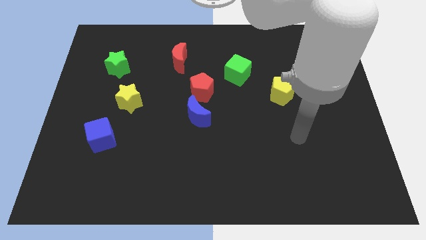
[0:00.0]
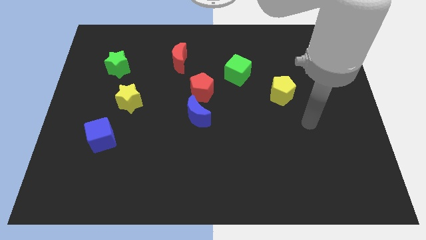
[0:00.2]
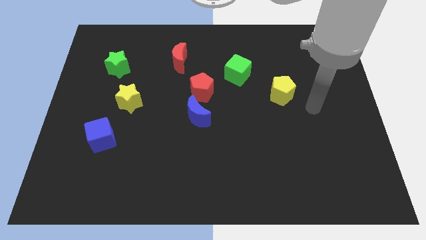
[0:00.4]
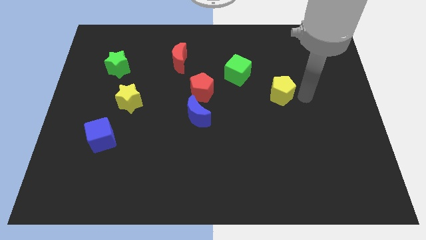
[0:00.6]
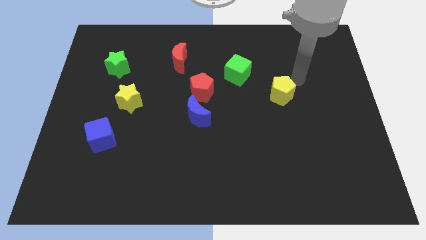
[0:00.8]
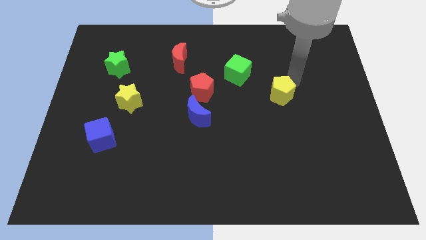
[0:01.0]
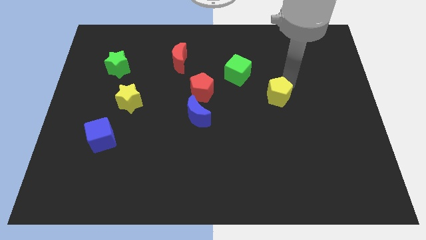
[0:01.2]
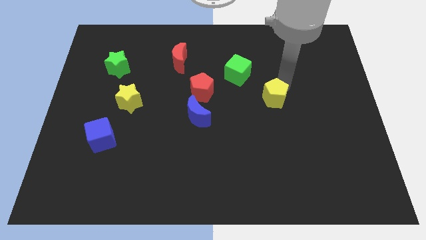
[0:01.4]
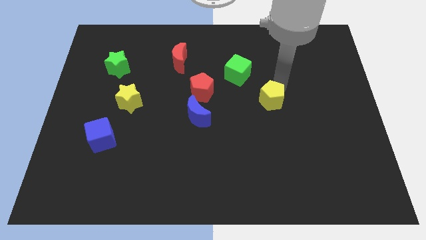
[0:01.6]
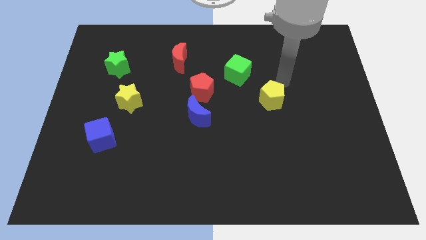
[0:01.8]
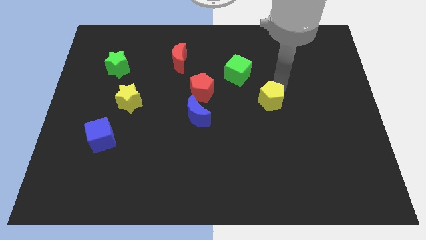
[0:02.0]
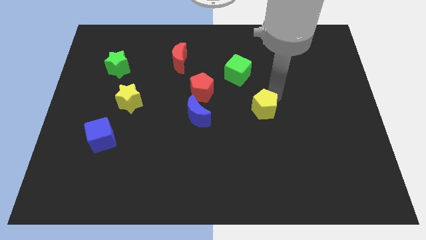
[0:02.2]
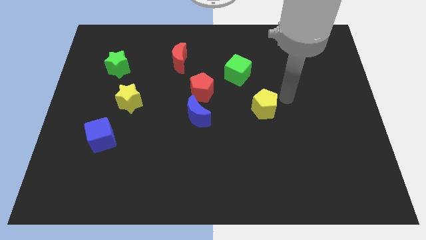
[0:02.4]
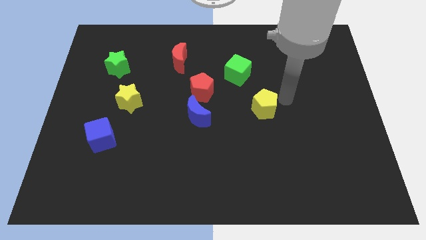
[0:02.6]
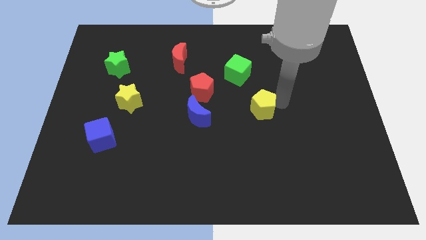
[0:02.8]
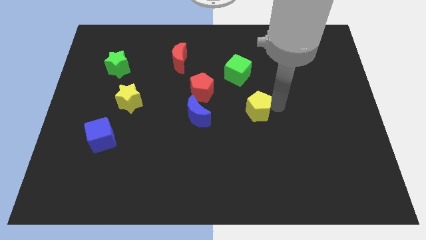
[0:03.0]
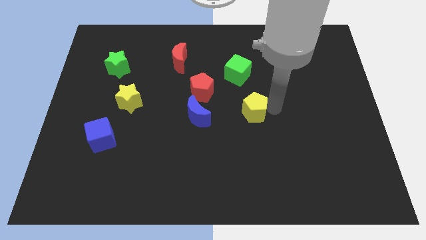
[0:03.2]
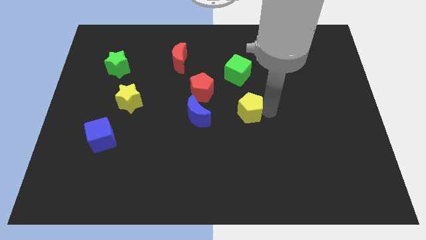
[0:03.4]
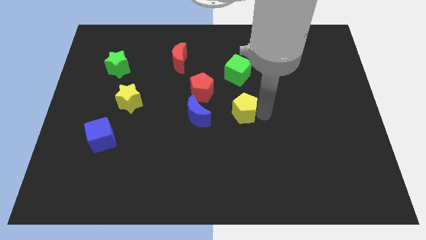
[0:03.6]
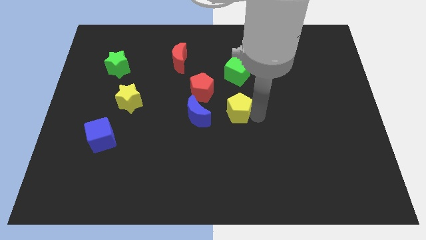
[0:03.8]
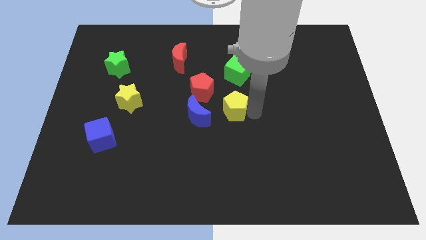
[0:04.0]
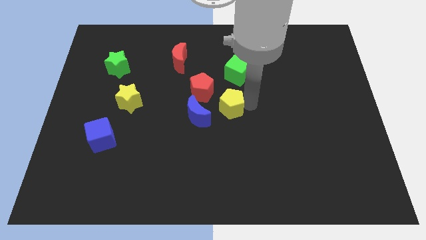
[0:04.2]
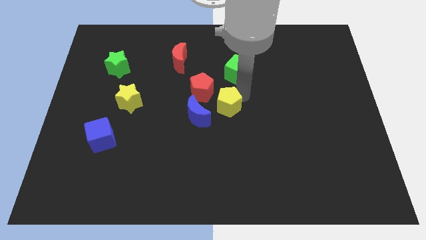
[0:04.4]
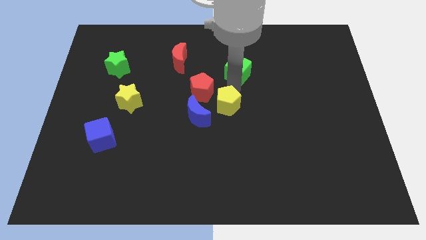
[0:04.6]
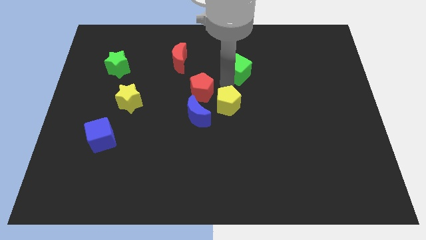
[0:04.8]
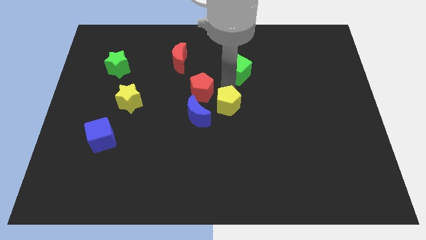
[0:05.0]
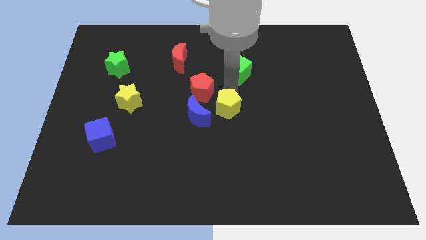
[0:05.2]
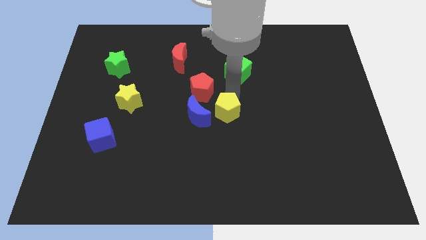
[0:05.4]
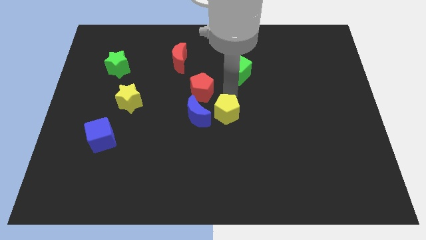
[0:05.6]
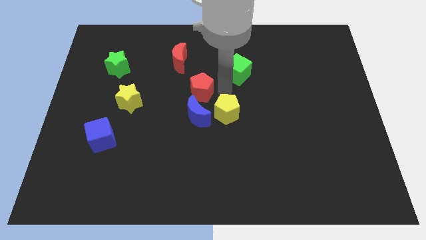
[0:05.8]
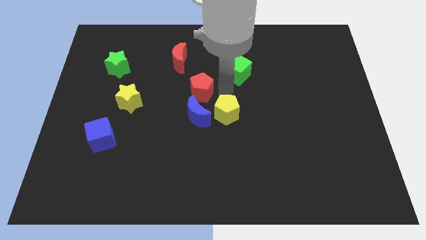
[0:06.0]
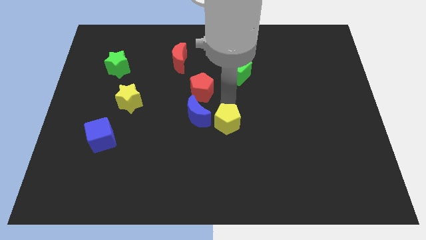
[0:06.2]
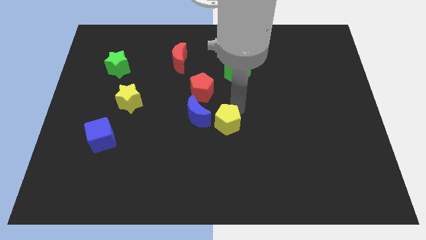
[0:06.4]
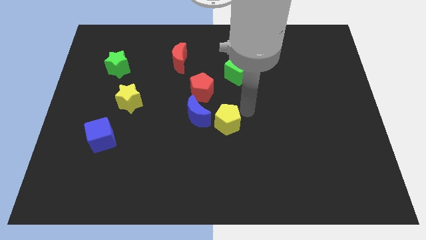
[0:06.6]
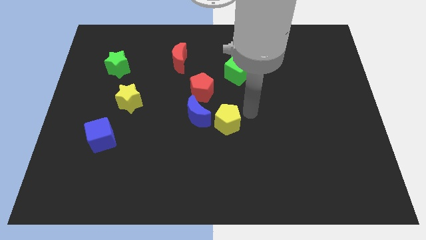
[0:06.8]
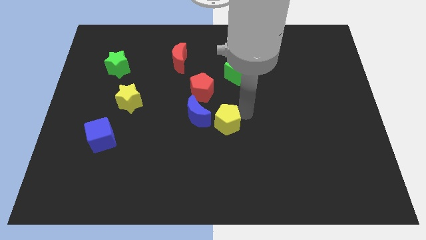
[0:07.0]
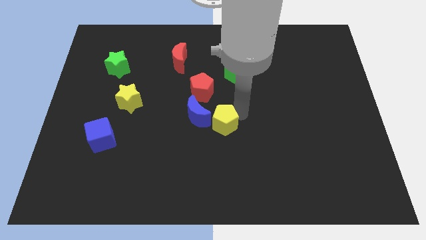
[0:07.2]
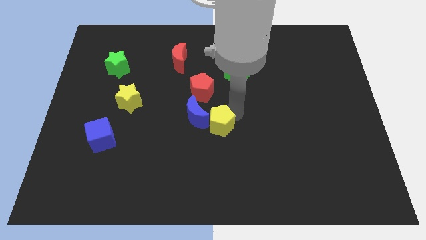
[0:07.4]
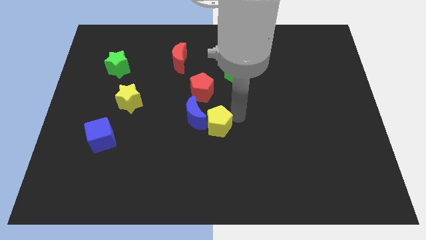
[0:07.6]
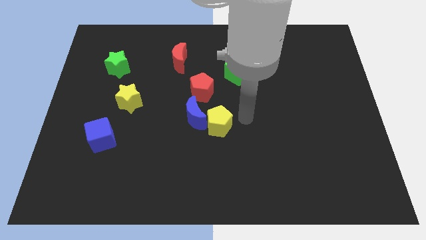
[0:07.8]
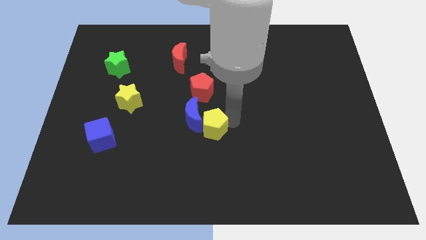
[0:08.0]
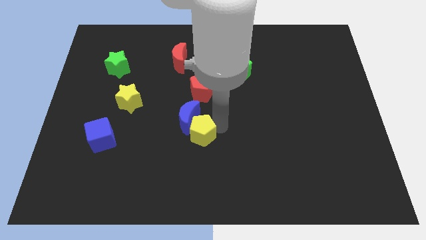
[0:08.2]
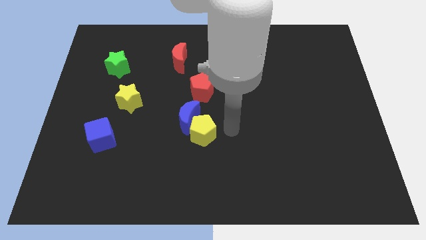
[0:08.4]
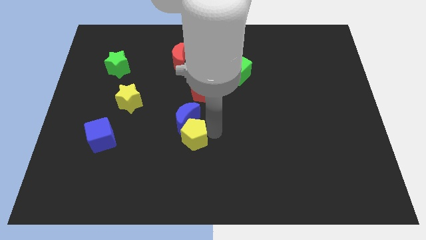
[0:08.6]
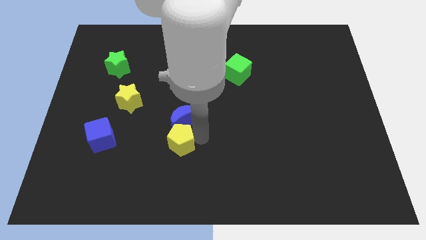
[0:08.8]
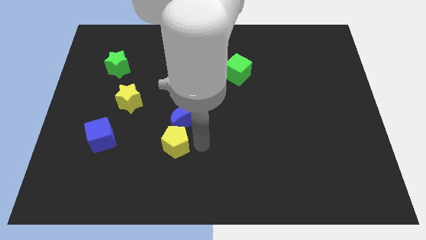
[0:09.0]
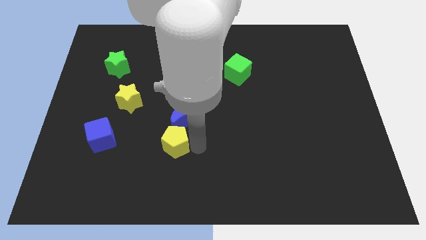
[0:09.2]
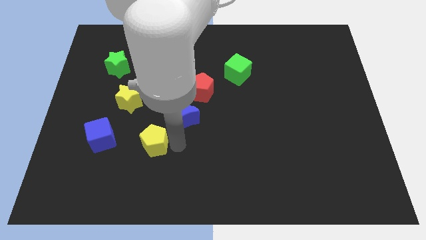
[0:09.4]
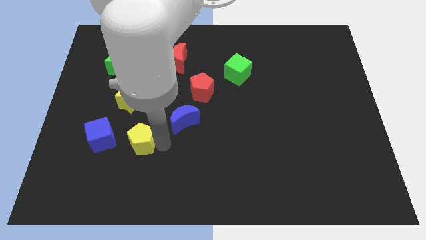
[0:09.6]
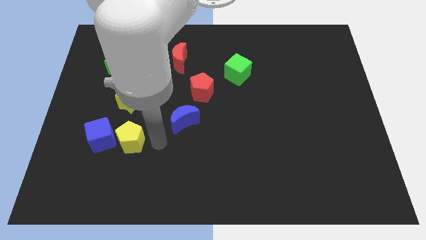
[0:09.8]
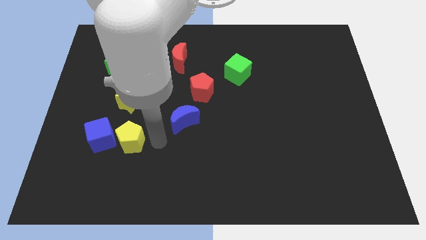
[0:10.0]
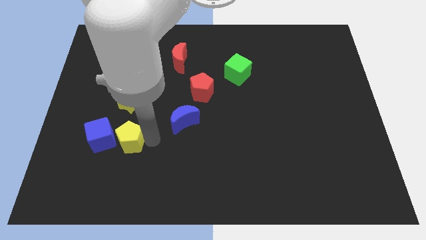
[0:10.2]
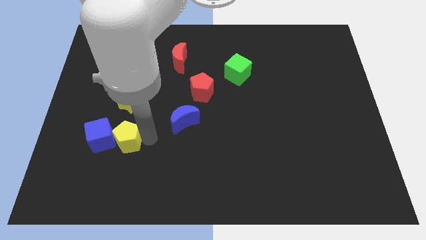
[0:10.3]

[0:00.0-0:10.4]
slide the yellow pentagon to the blue cube

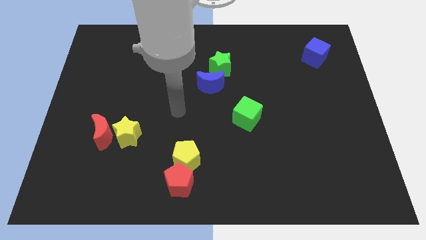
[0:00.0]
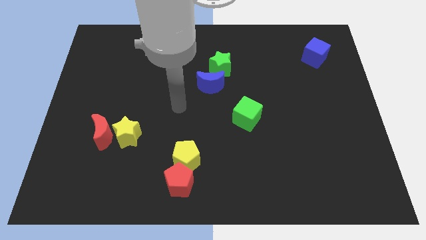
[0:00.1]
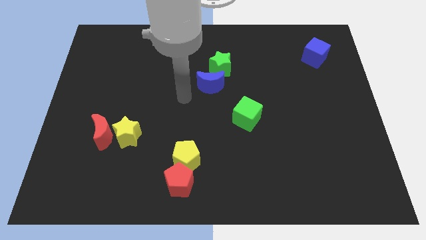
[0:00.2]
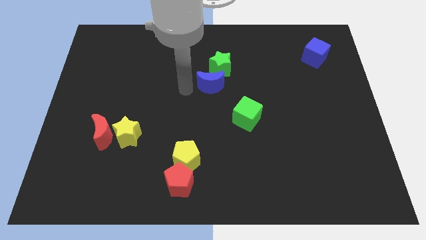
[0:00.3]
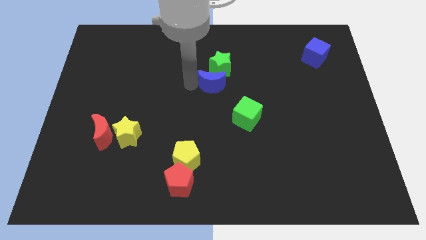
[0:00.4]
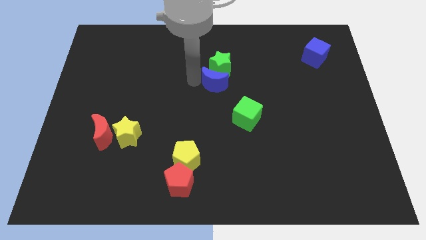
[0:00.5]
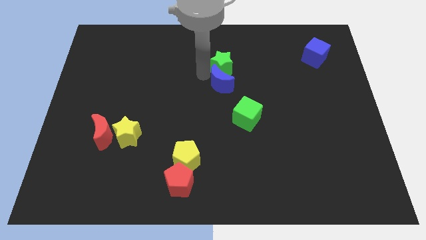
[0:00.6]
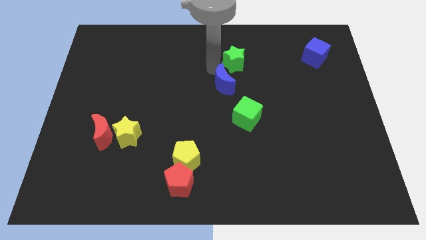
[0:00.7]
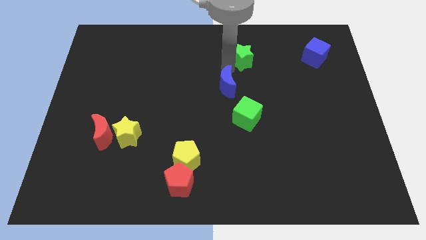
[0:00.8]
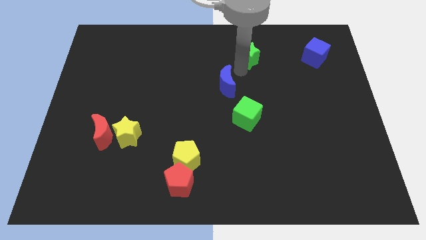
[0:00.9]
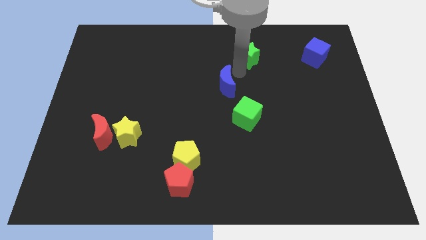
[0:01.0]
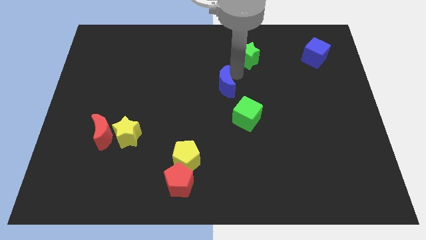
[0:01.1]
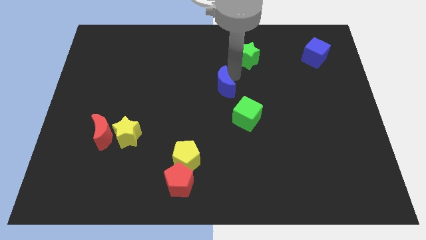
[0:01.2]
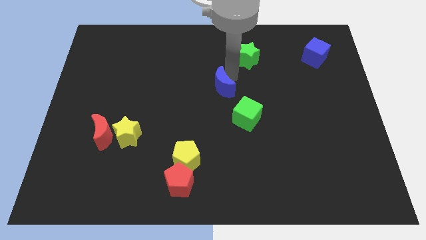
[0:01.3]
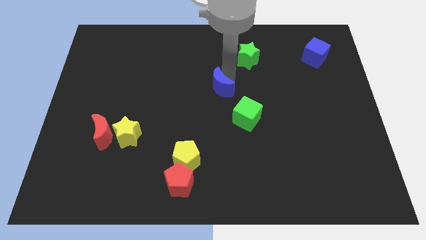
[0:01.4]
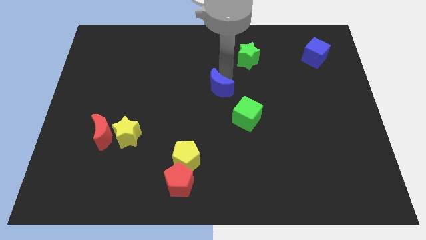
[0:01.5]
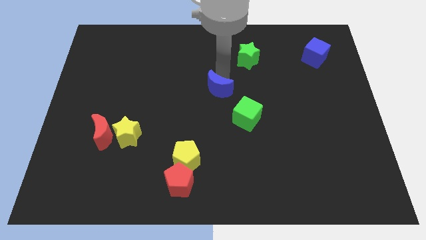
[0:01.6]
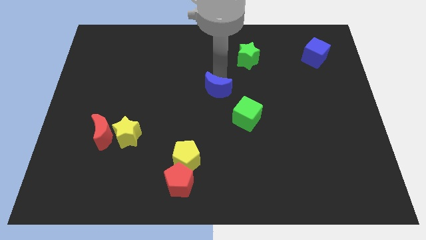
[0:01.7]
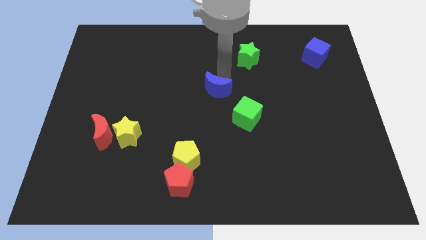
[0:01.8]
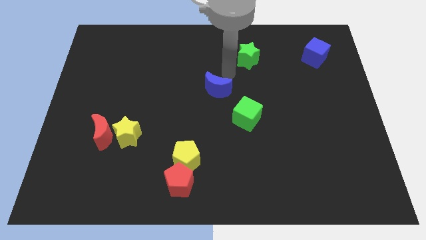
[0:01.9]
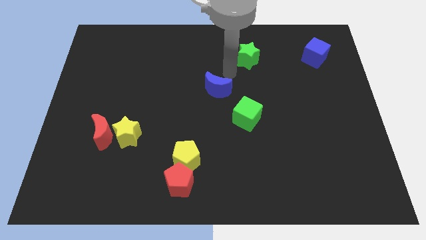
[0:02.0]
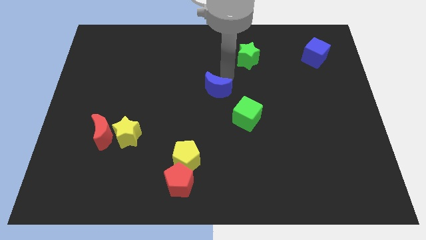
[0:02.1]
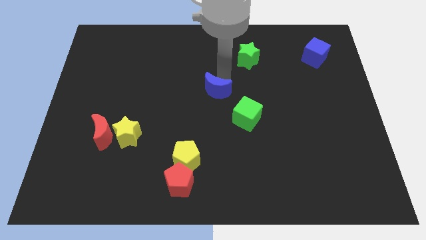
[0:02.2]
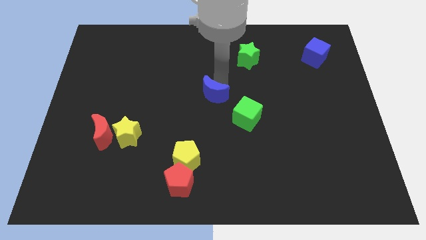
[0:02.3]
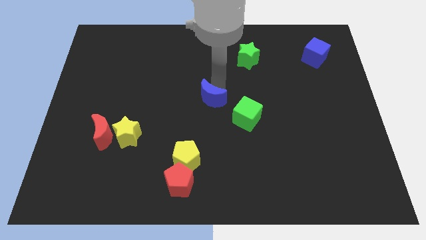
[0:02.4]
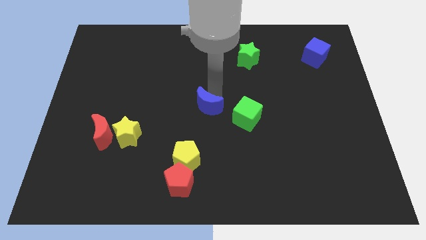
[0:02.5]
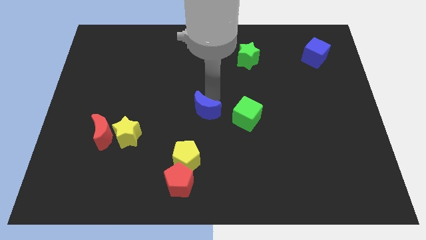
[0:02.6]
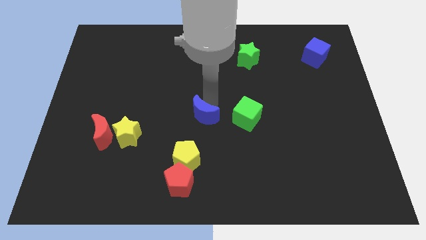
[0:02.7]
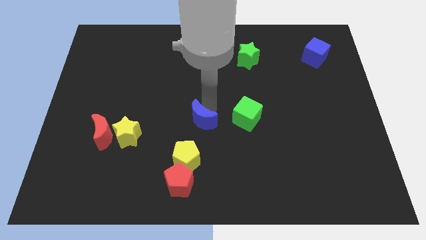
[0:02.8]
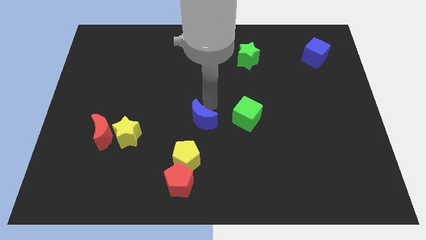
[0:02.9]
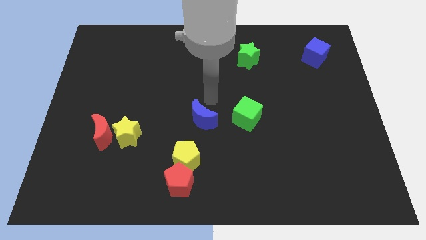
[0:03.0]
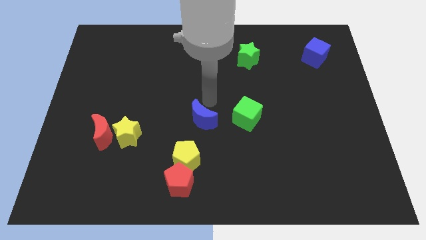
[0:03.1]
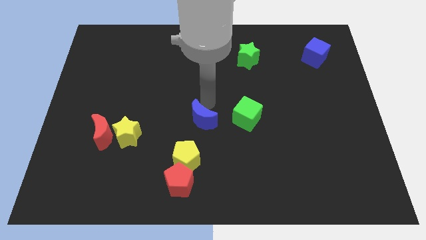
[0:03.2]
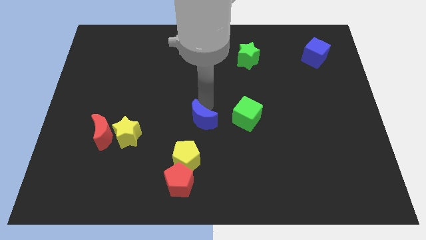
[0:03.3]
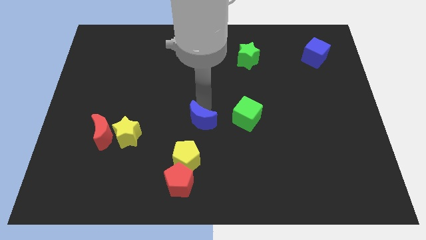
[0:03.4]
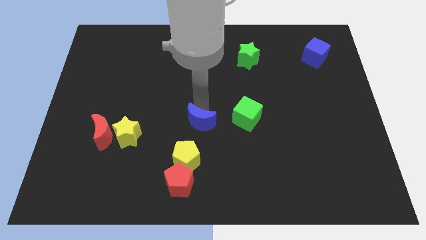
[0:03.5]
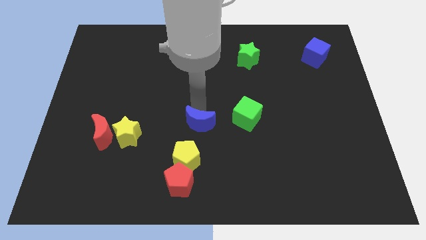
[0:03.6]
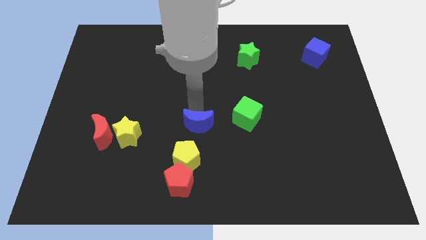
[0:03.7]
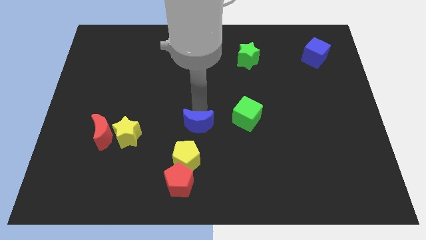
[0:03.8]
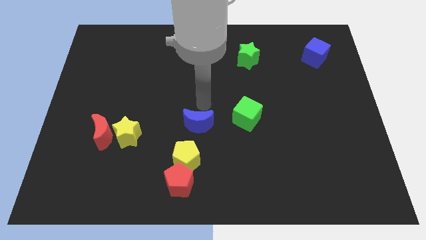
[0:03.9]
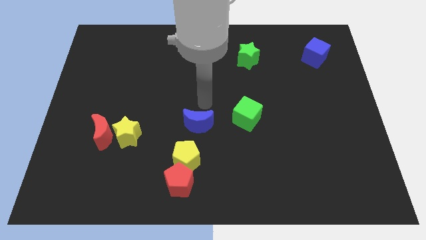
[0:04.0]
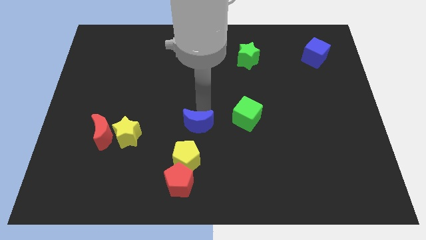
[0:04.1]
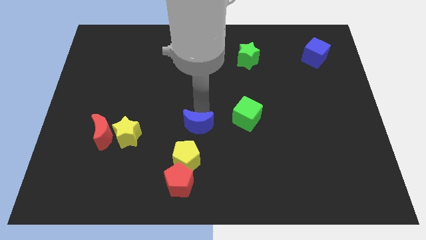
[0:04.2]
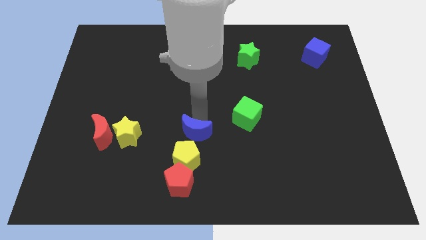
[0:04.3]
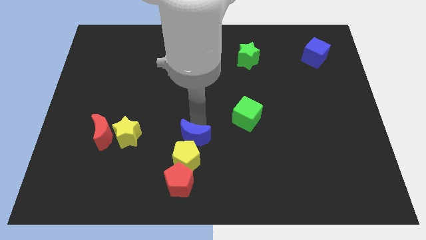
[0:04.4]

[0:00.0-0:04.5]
slide the blue moon towards the yellow pentagon
